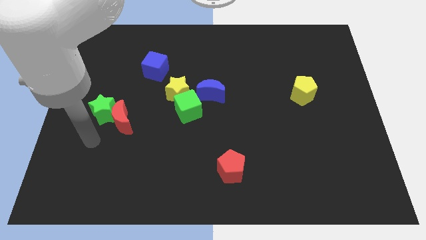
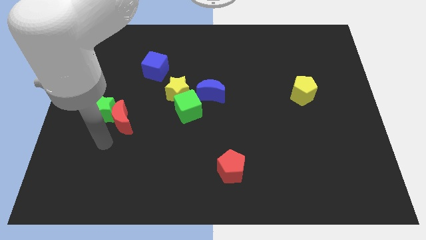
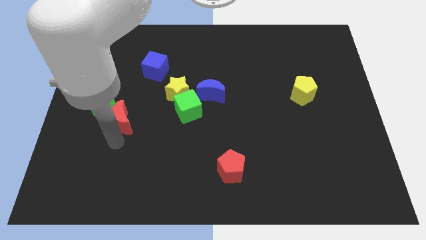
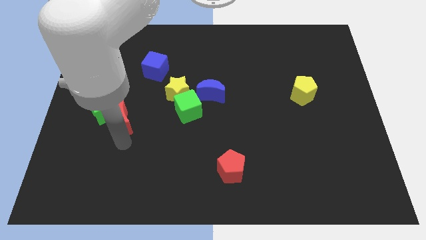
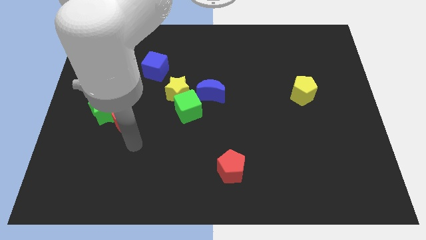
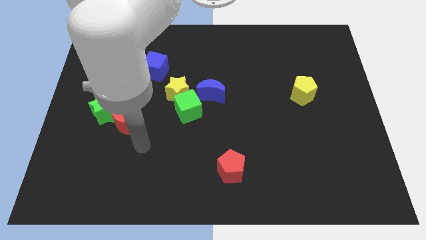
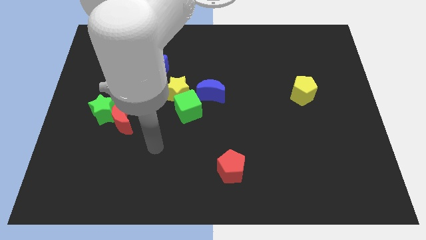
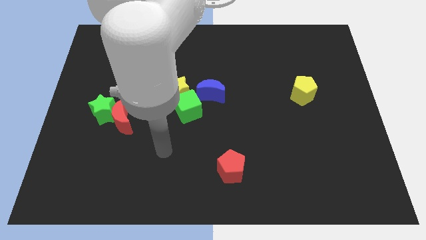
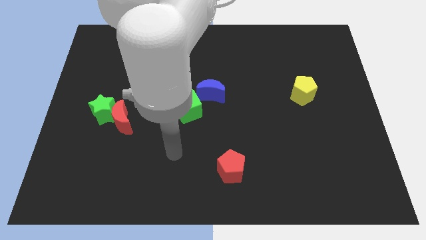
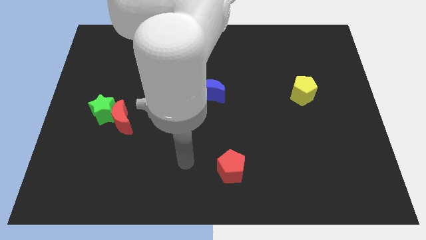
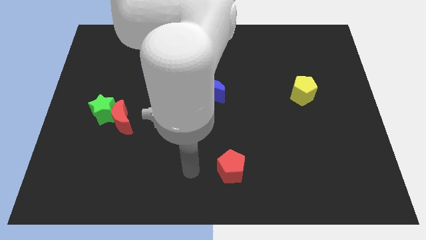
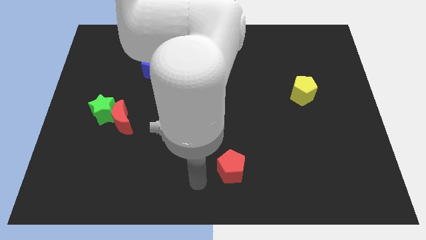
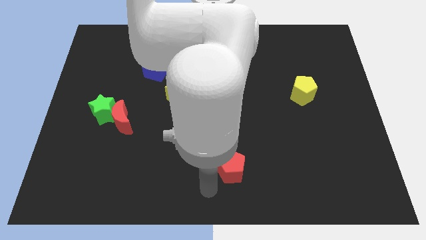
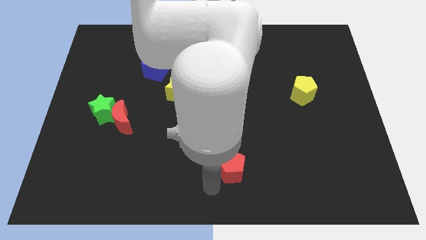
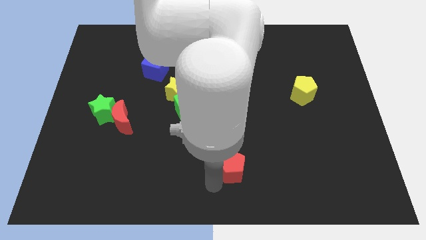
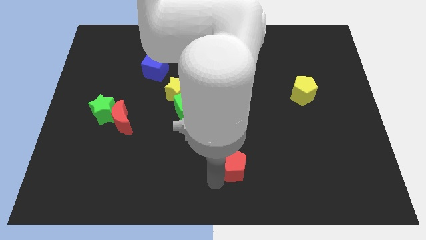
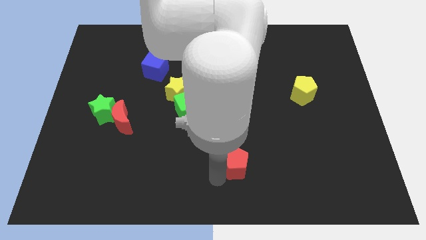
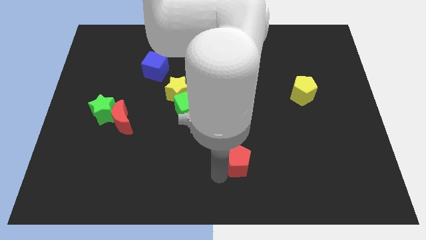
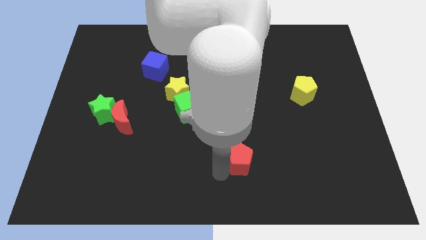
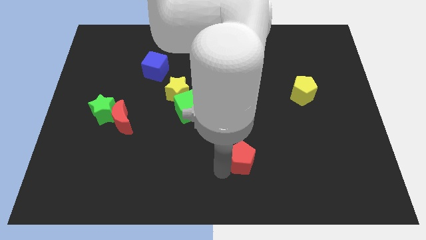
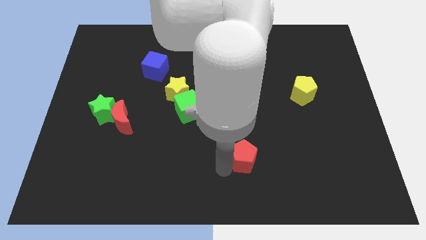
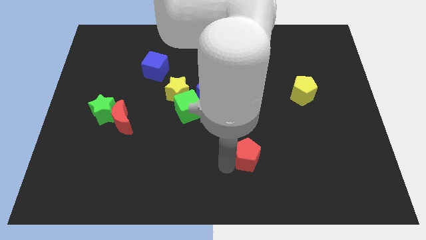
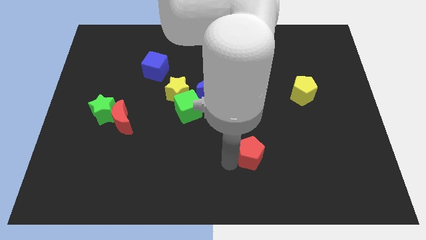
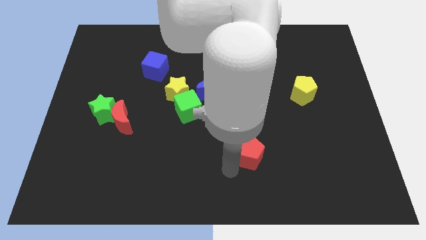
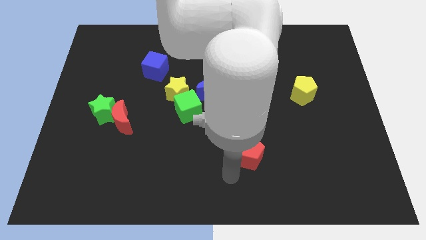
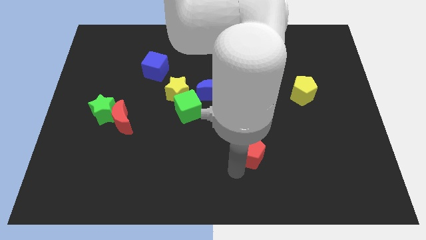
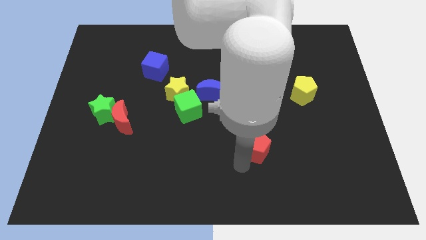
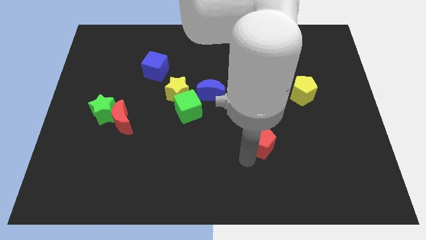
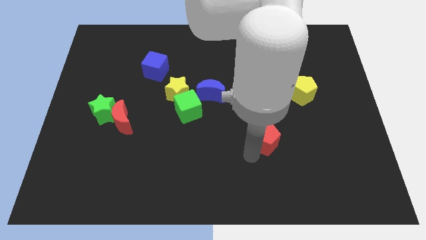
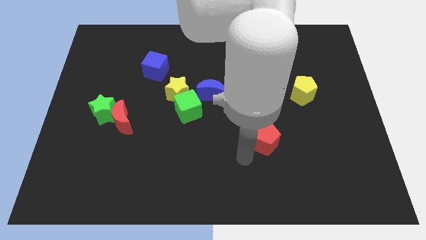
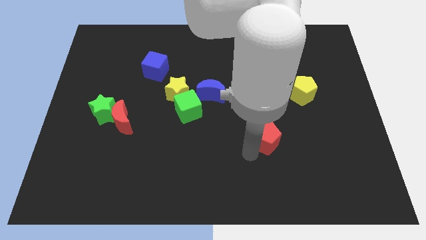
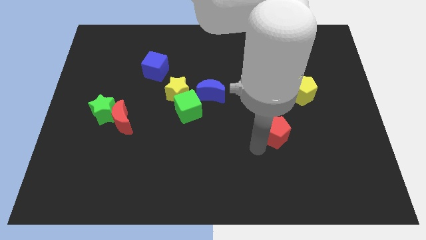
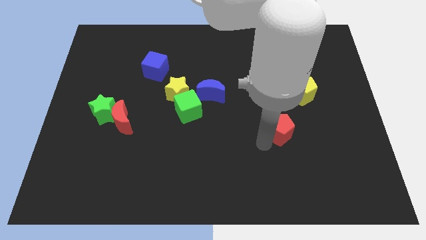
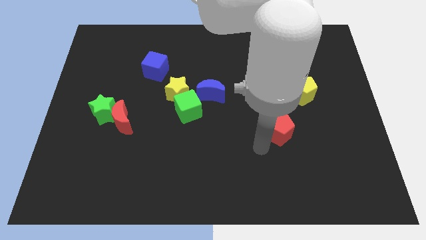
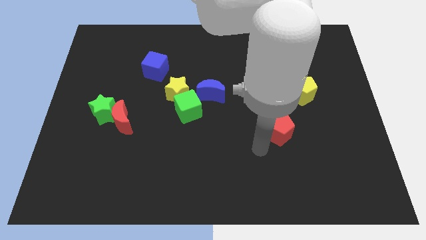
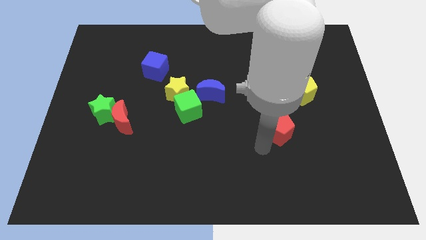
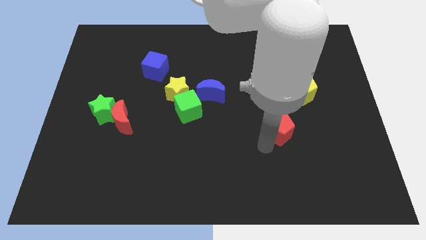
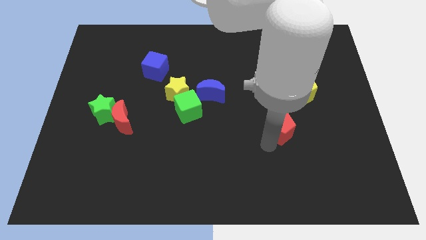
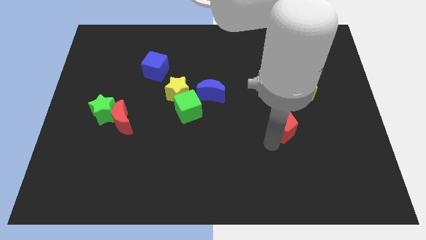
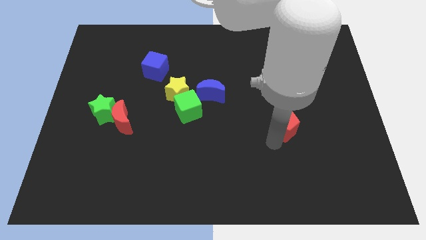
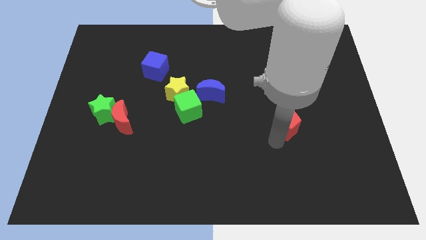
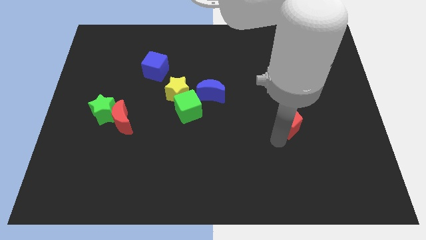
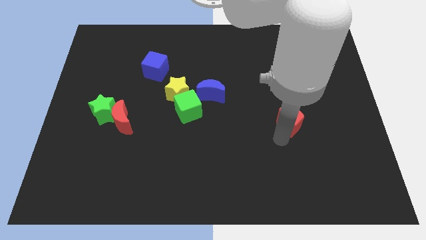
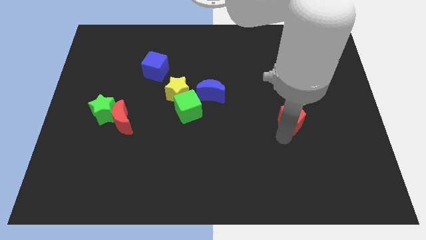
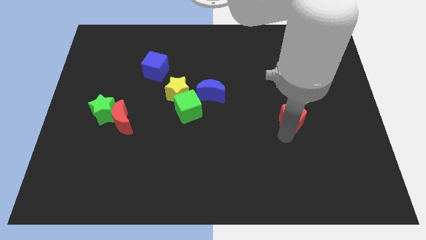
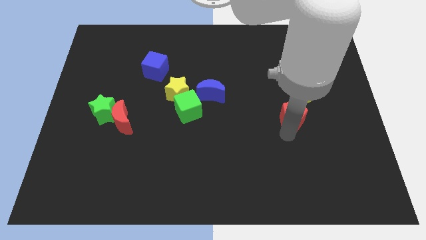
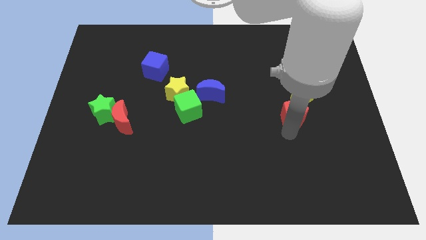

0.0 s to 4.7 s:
move the red pentagon up and right diagonally

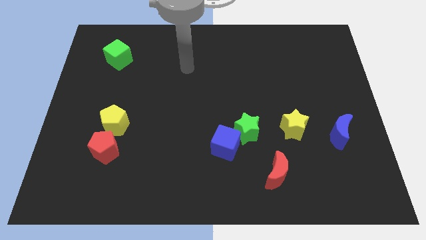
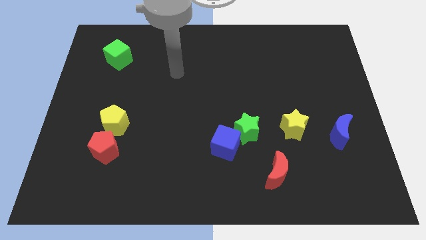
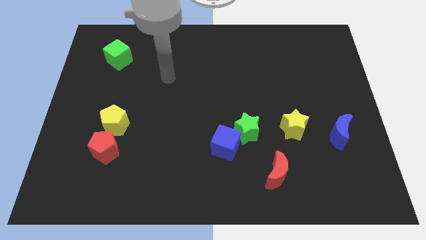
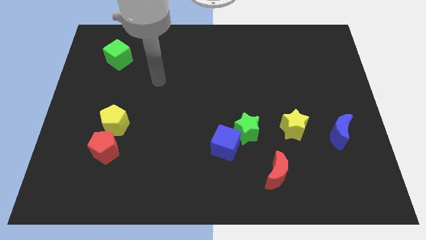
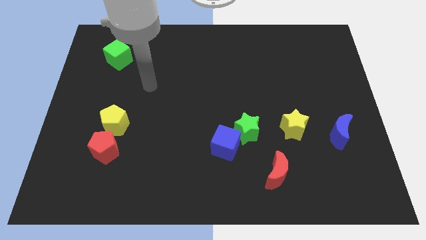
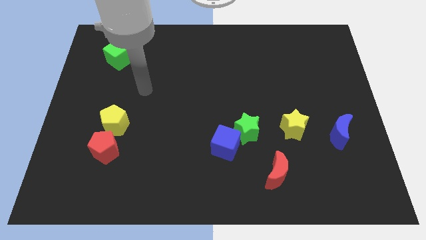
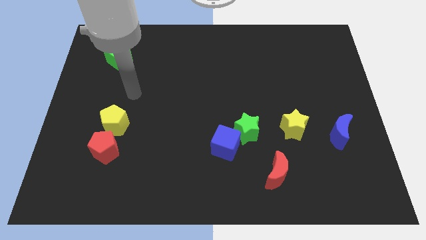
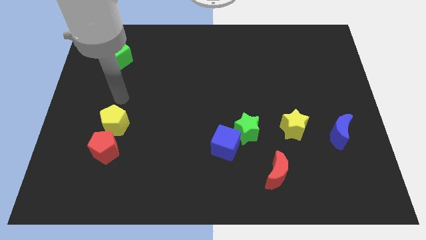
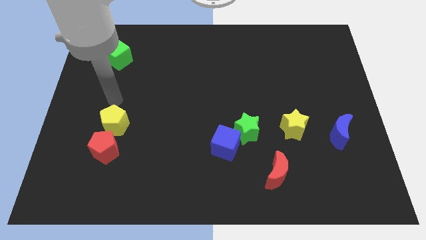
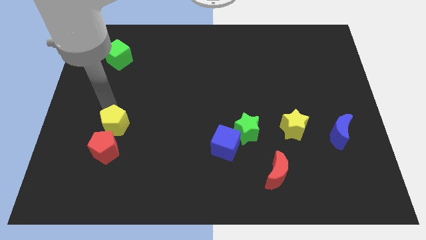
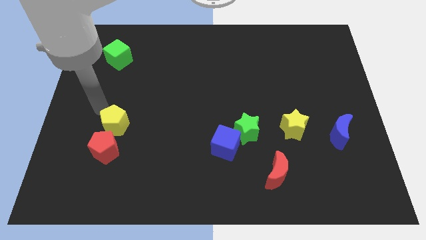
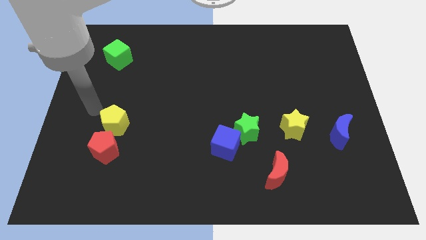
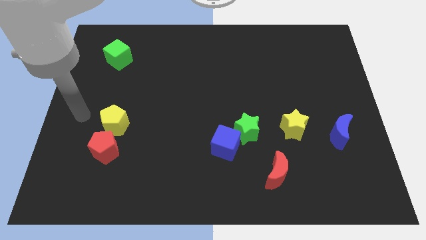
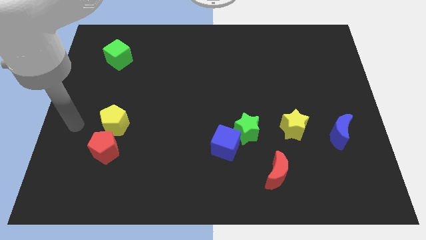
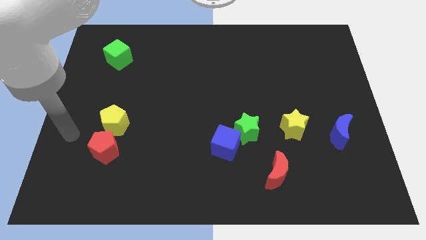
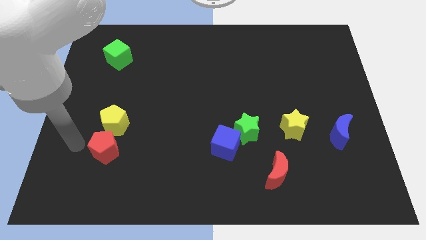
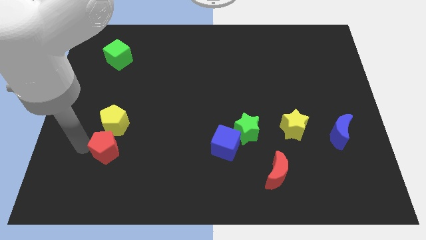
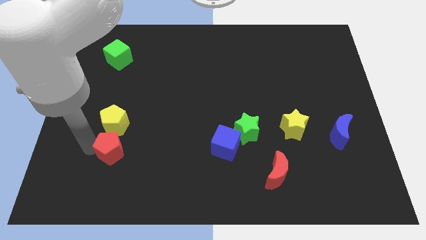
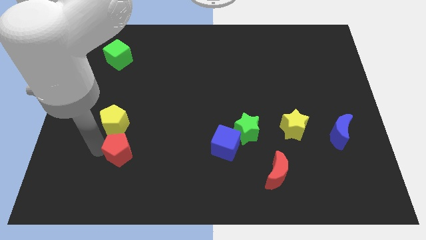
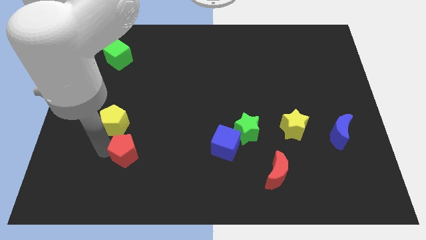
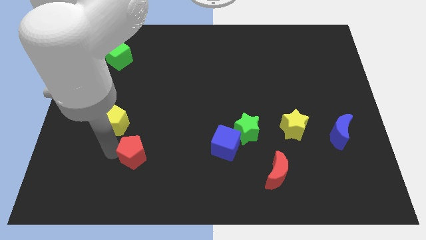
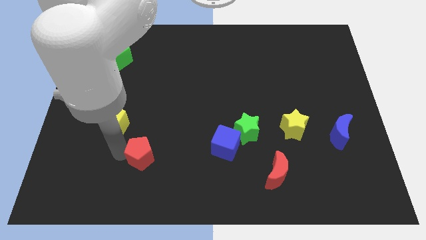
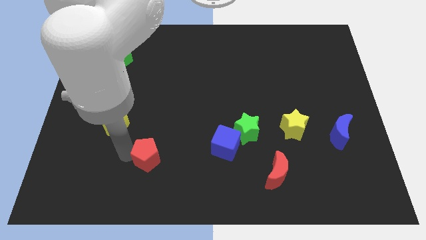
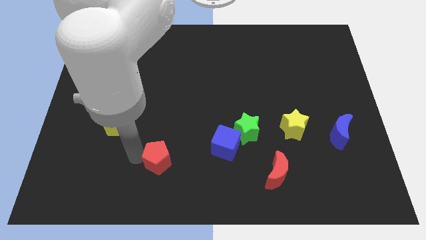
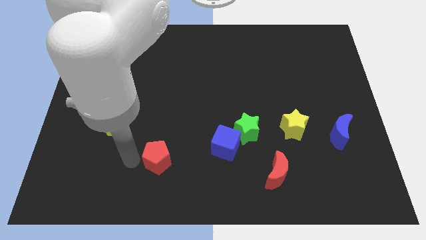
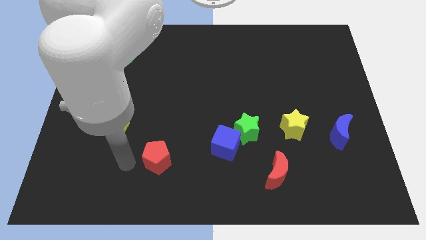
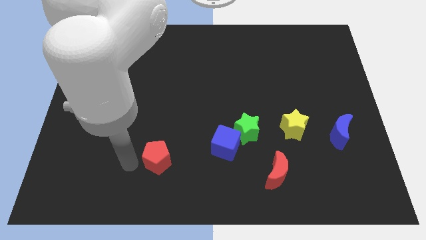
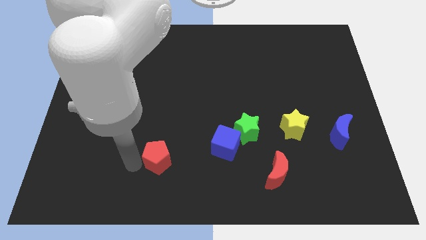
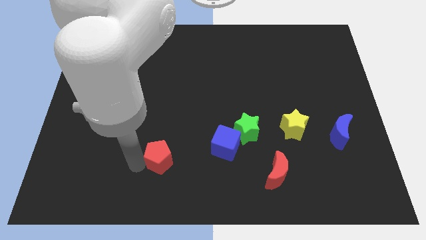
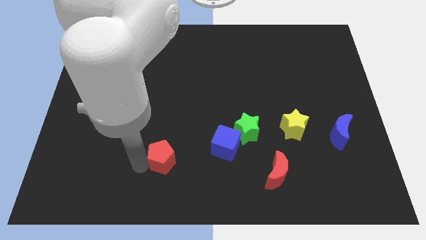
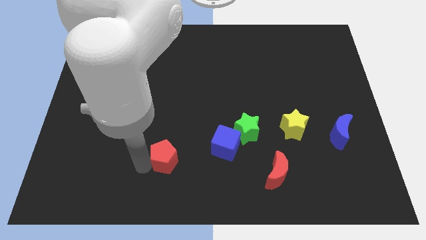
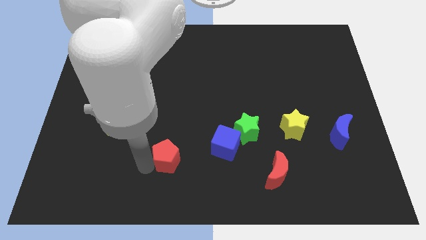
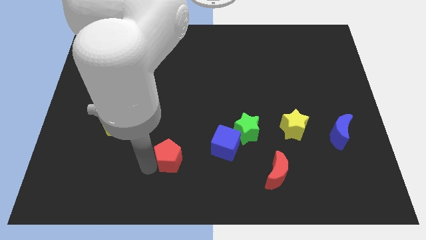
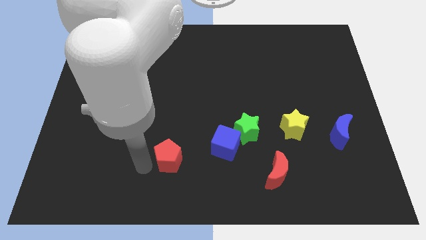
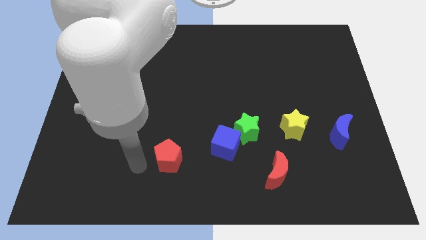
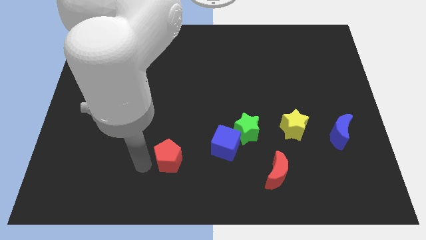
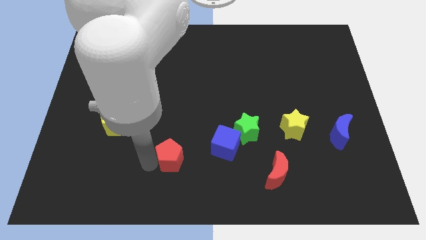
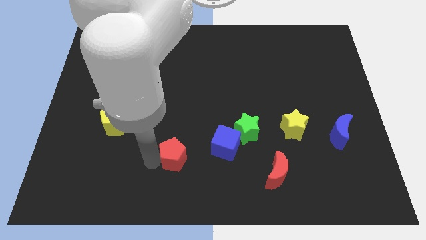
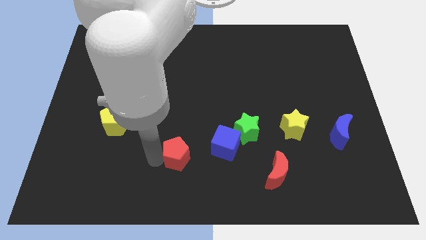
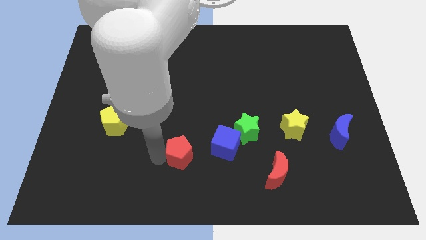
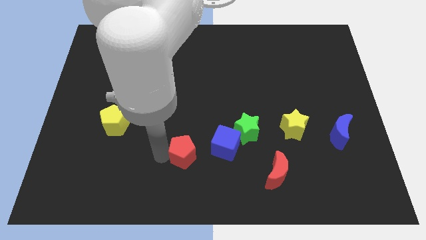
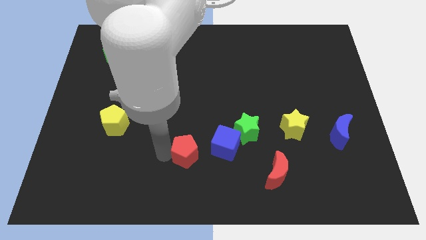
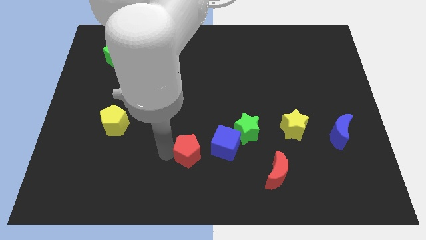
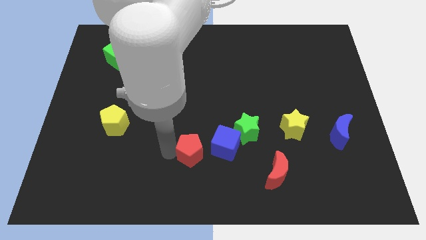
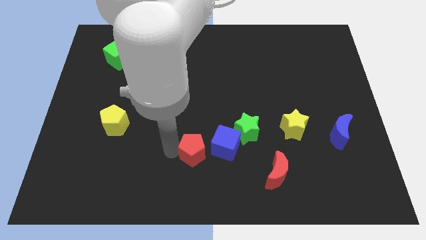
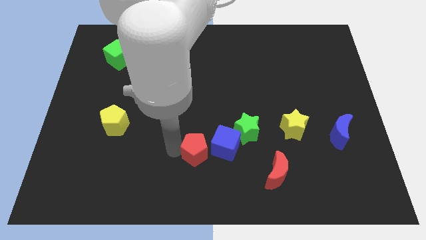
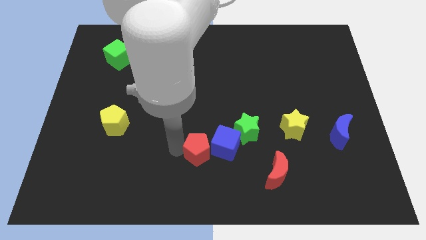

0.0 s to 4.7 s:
slide the red pentagon right
